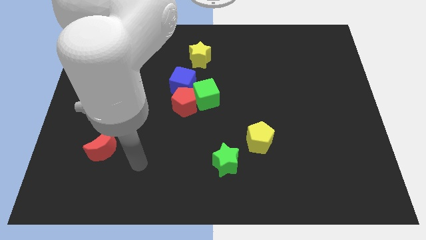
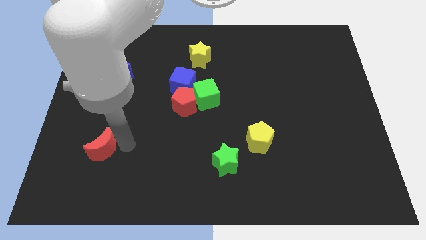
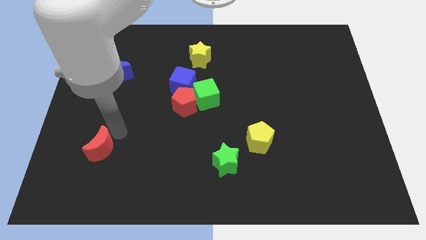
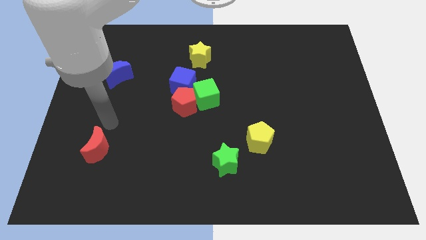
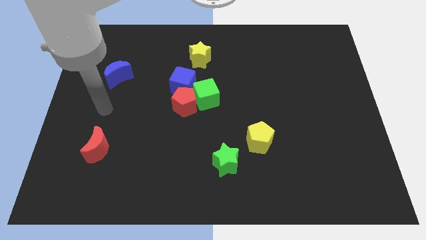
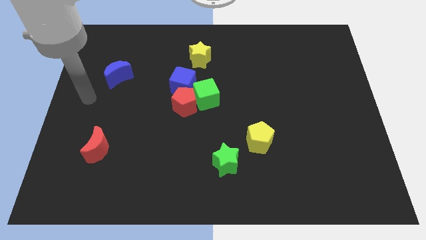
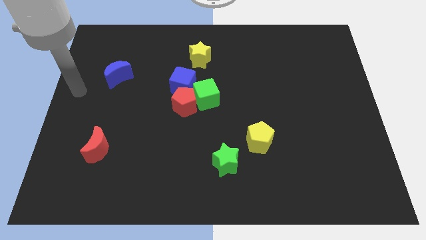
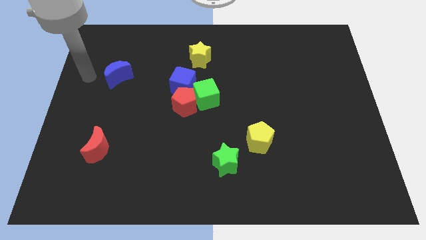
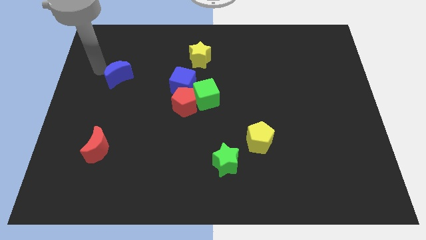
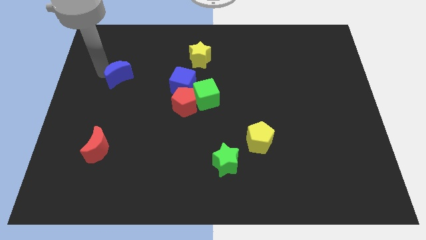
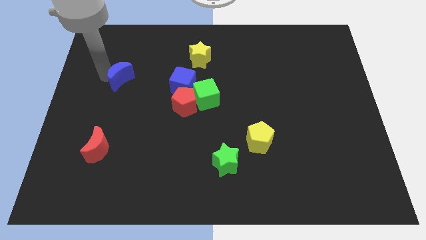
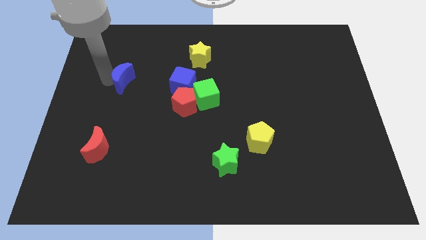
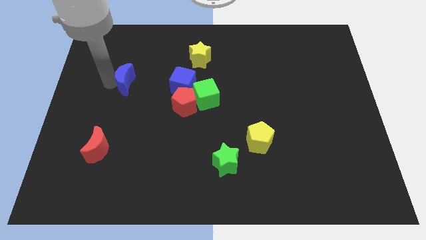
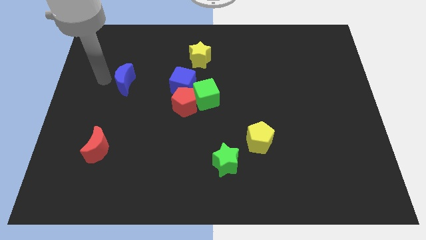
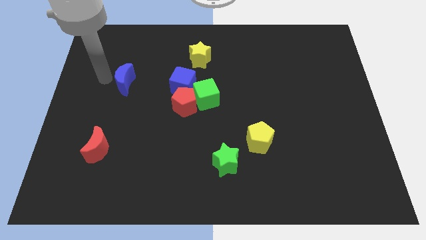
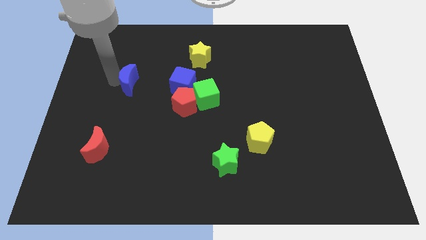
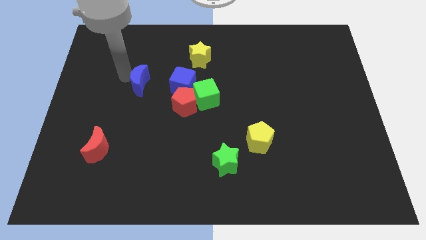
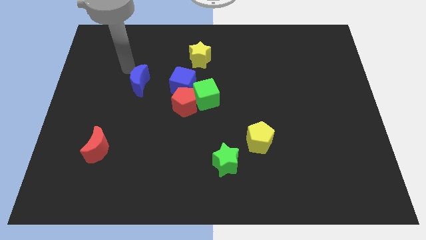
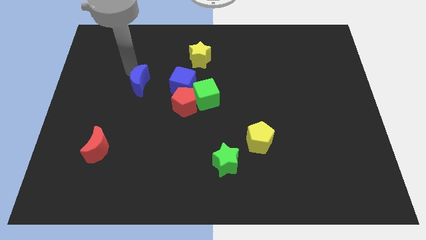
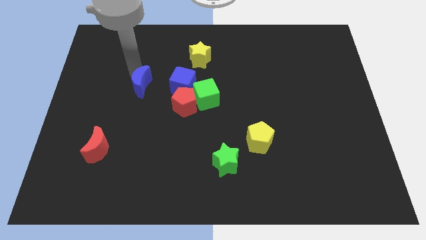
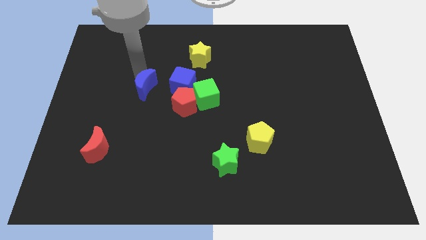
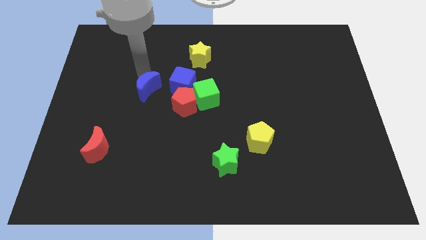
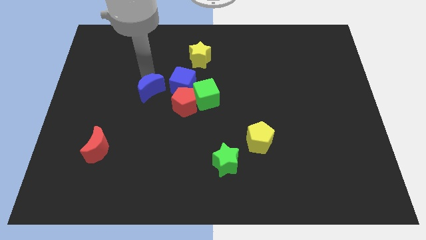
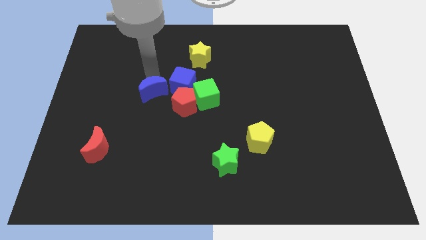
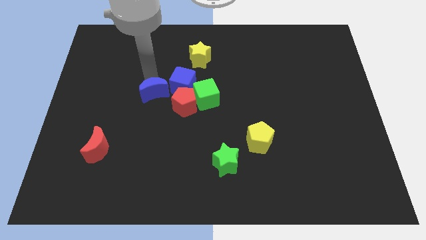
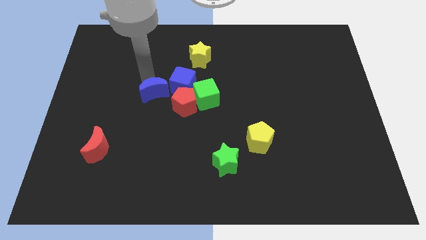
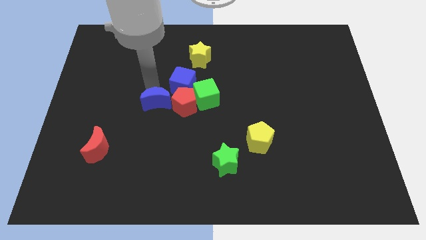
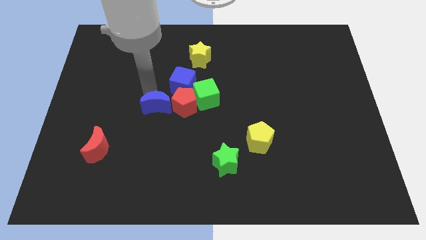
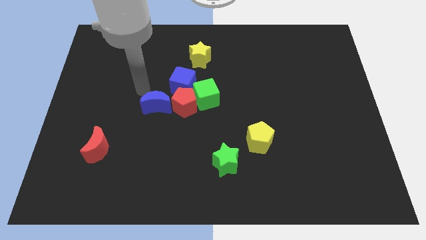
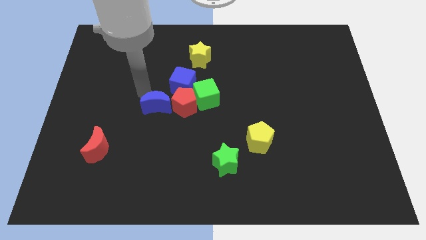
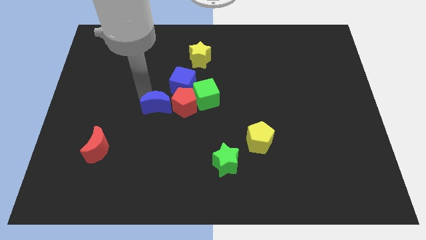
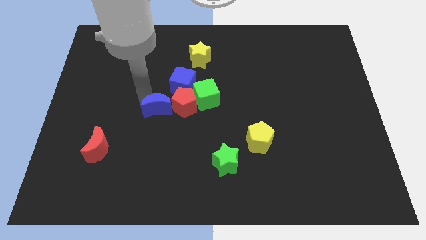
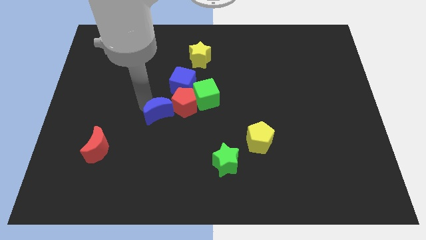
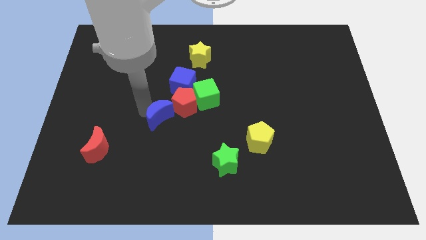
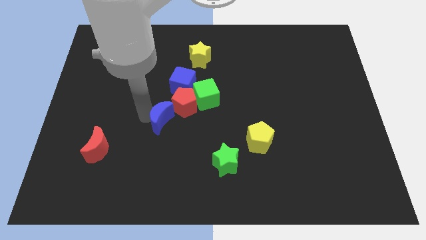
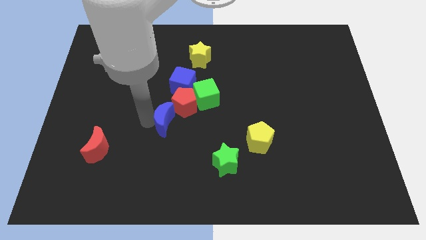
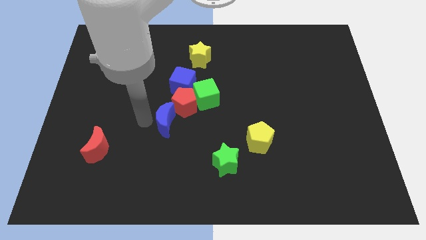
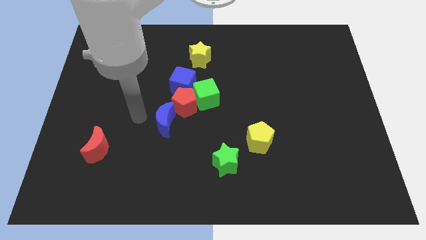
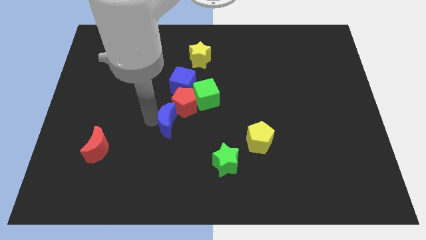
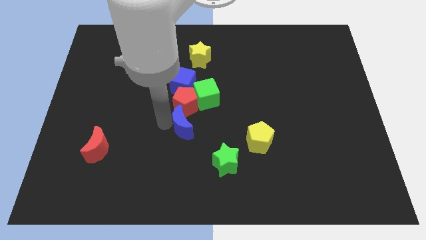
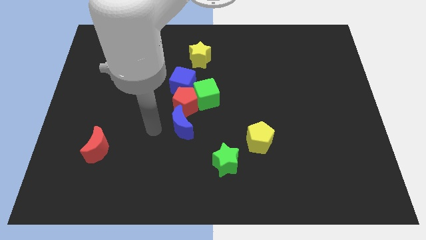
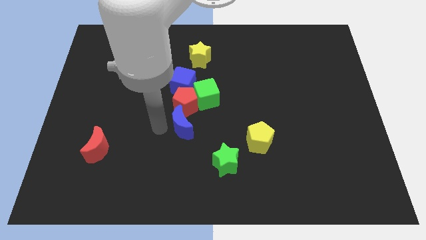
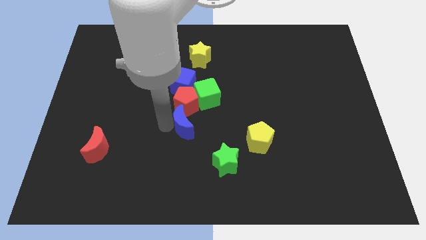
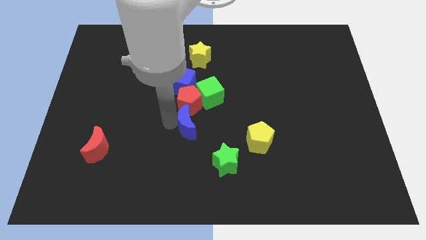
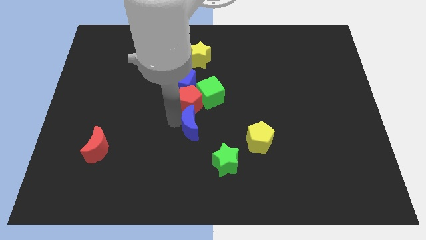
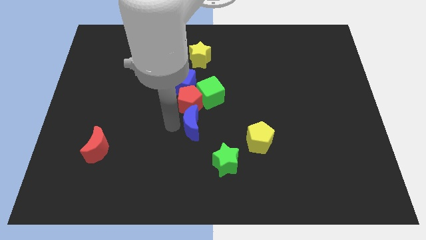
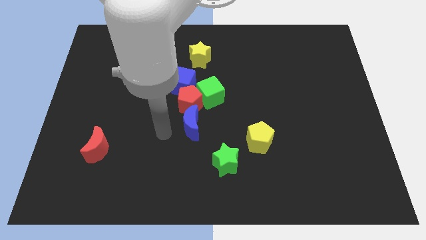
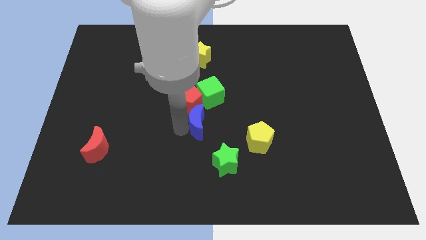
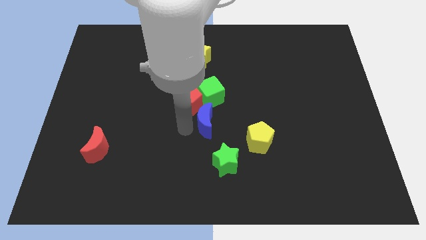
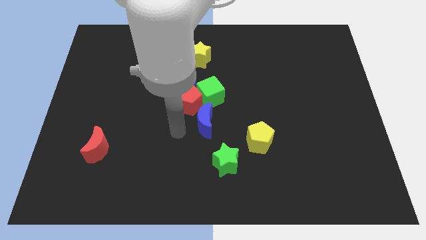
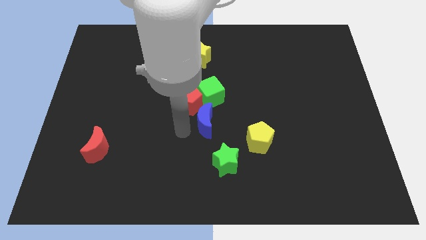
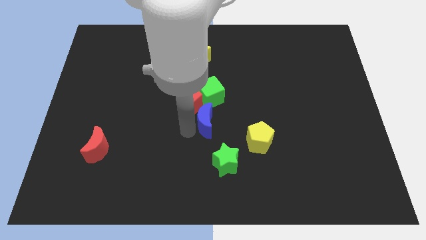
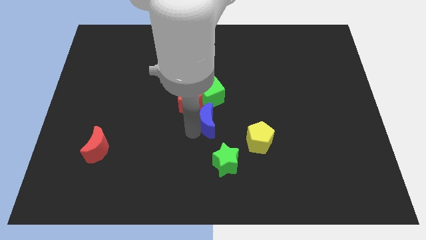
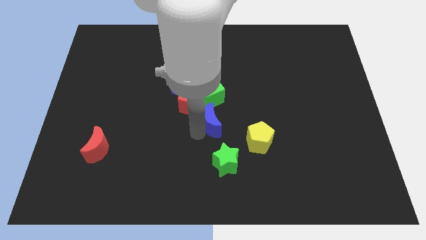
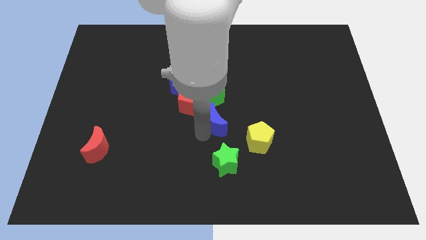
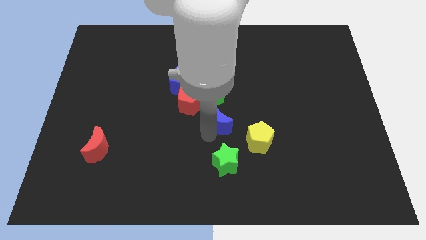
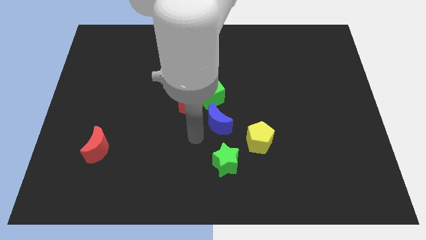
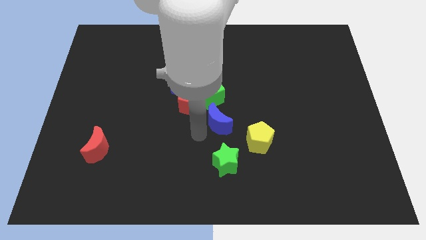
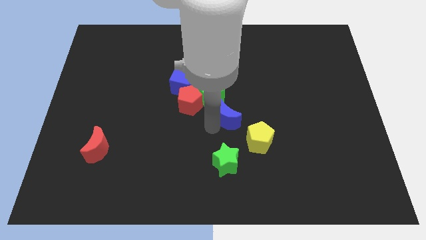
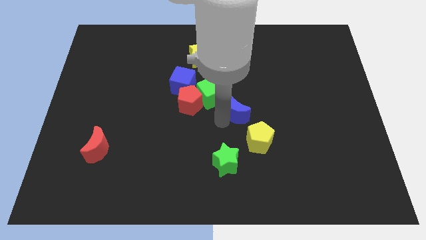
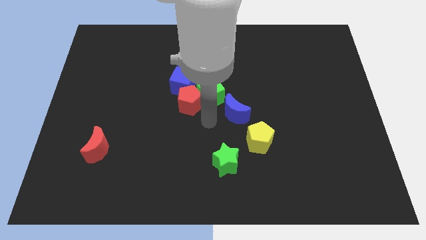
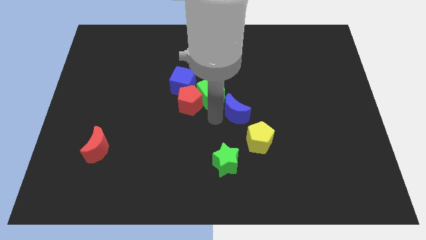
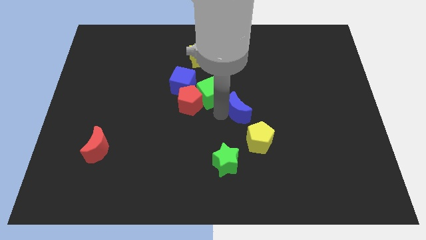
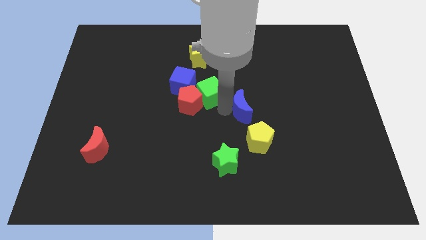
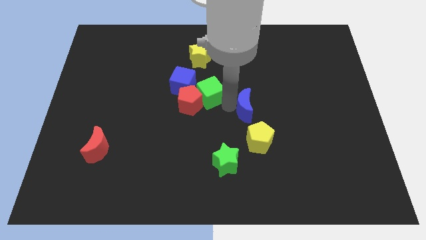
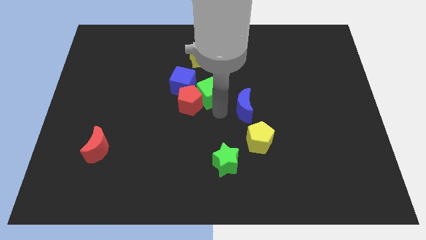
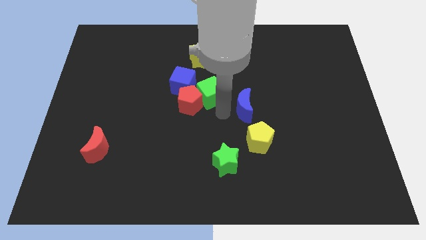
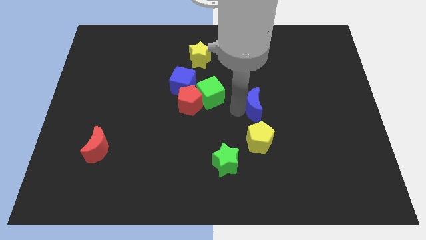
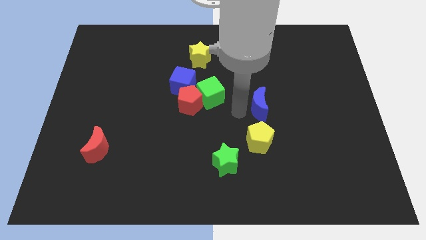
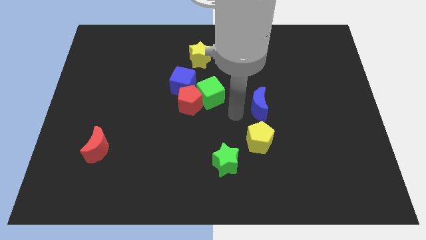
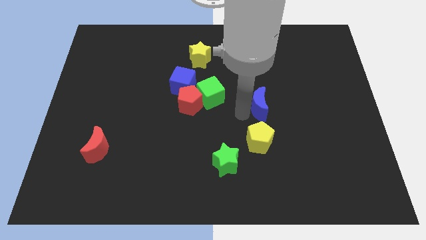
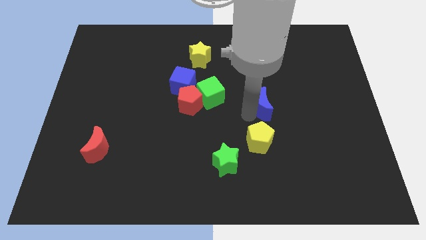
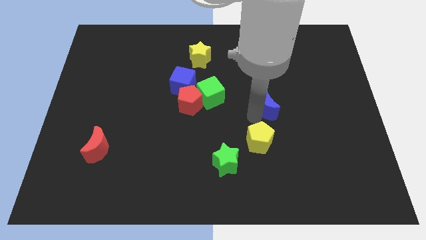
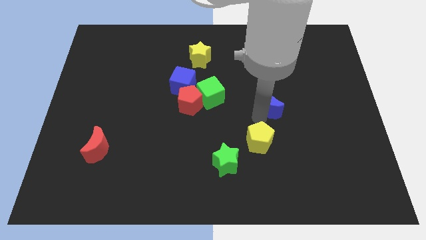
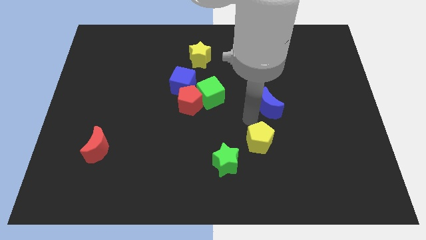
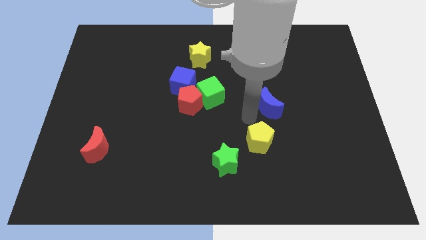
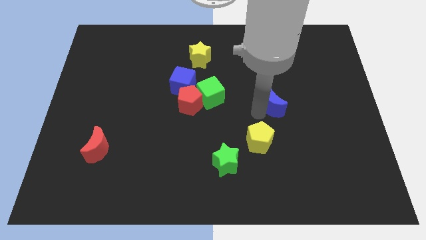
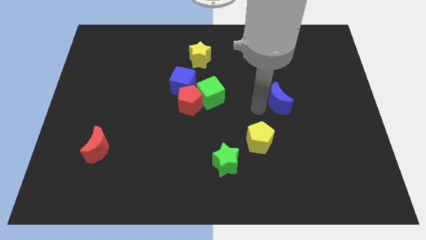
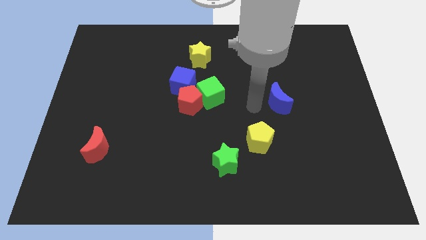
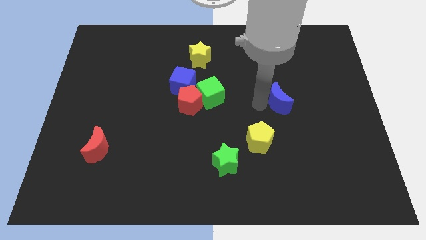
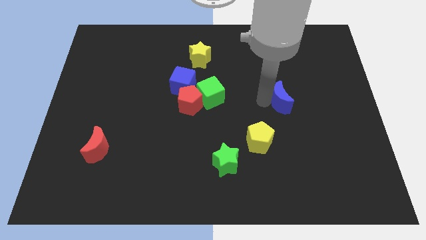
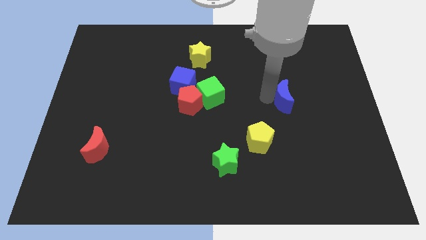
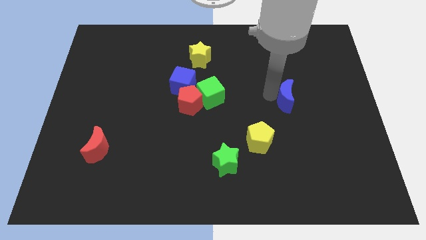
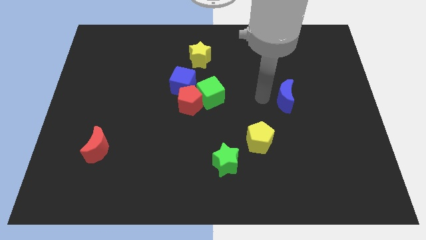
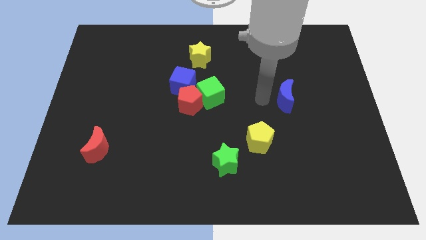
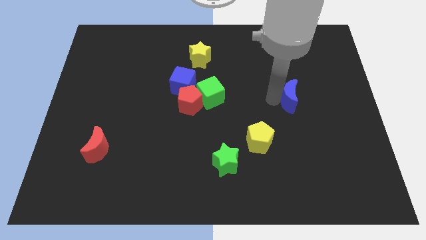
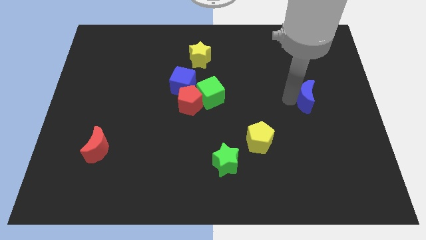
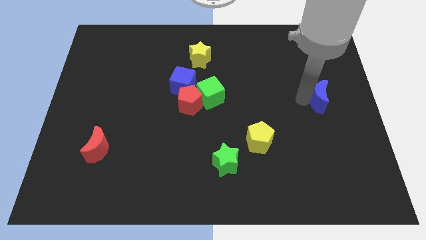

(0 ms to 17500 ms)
push the blue moon to the center right

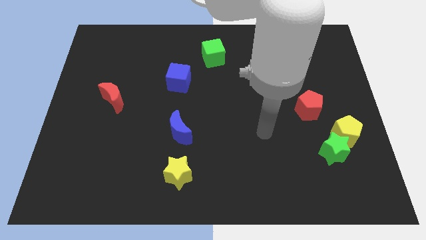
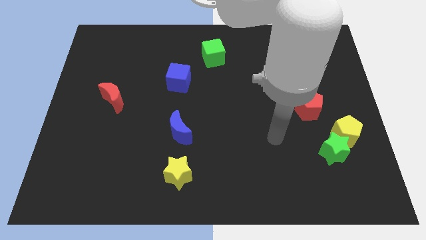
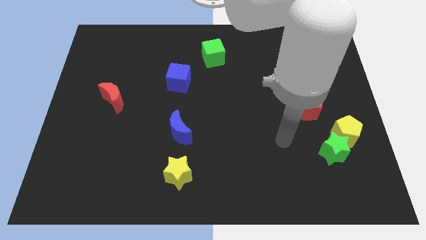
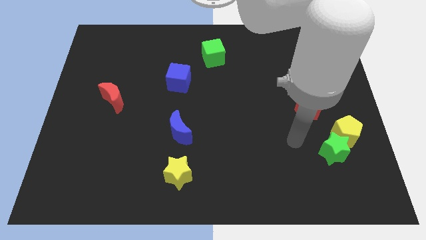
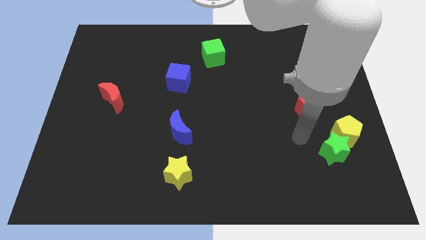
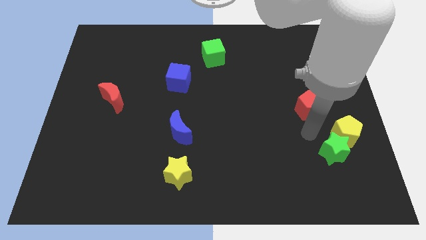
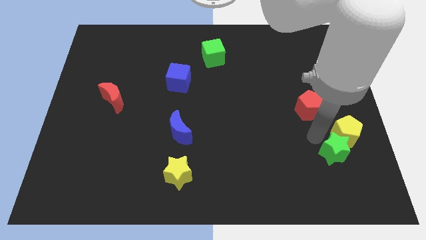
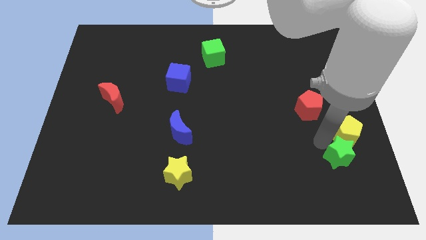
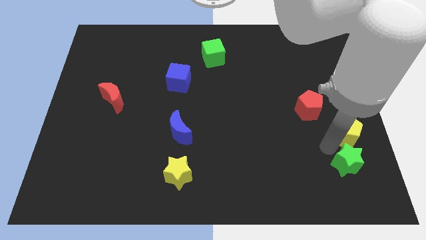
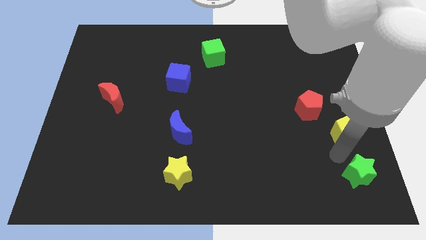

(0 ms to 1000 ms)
put the green star to the bottom right corner
